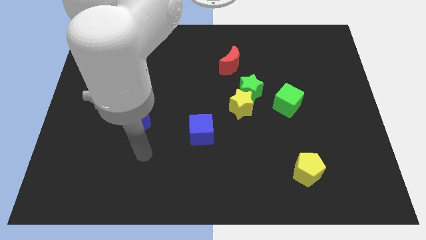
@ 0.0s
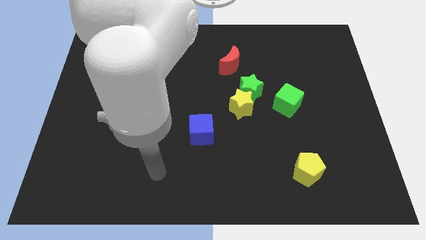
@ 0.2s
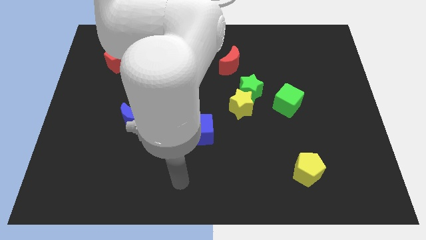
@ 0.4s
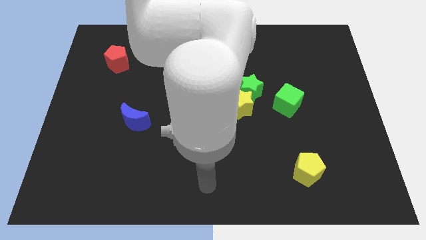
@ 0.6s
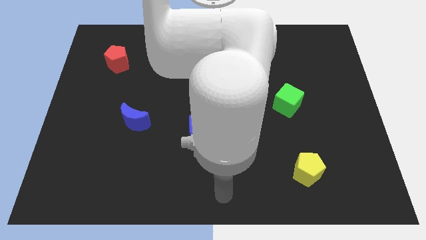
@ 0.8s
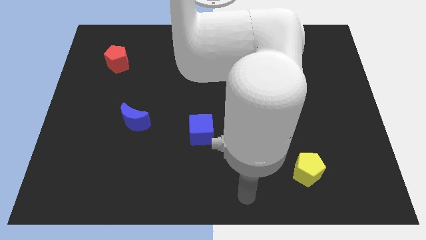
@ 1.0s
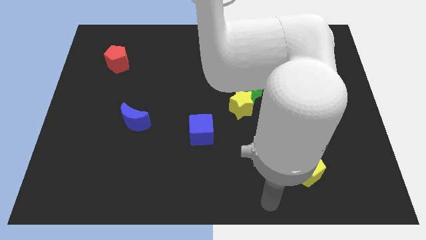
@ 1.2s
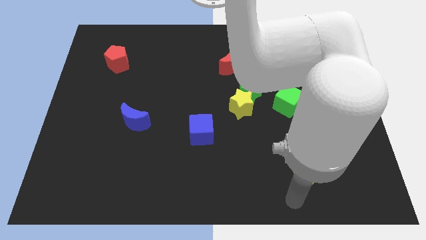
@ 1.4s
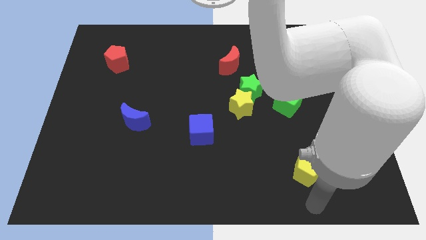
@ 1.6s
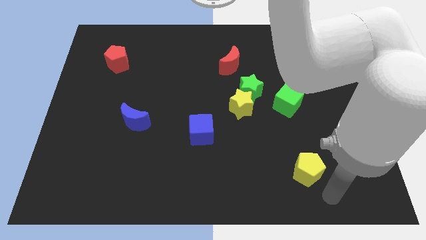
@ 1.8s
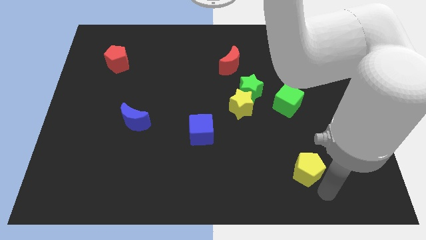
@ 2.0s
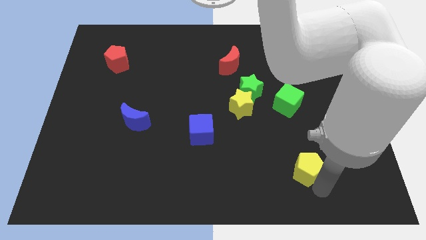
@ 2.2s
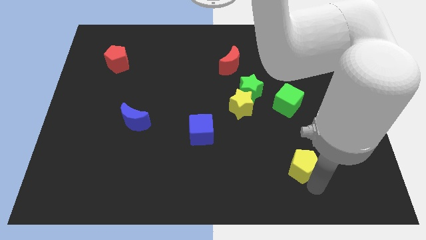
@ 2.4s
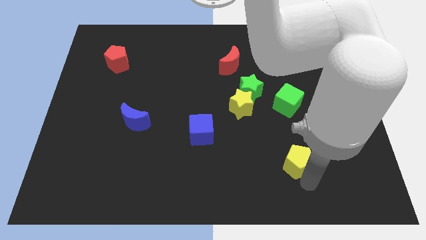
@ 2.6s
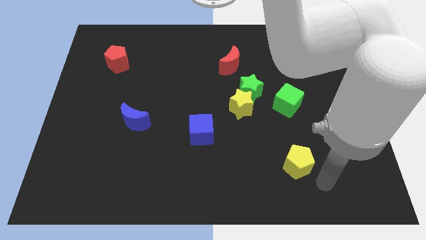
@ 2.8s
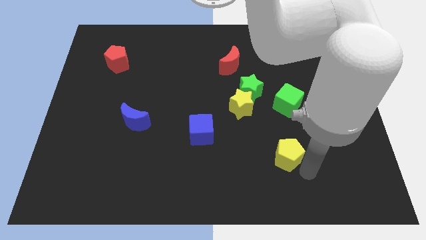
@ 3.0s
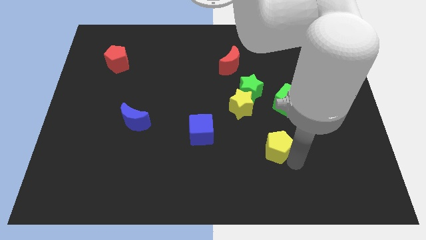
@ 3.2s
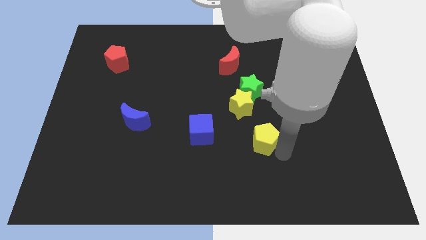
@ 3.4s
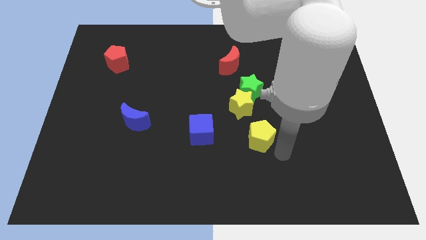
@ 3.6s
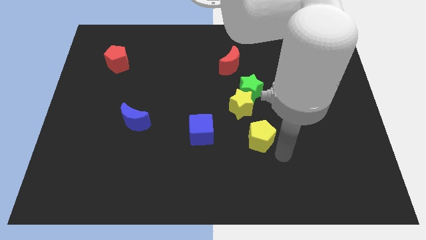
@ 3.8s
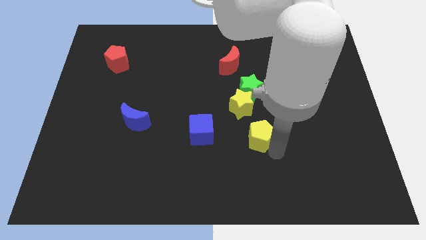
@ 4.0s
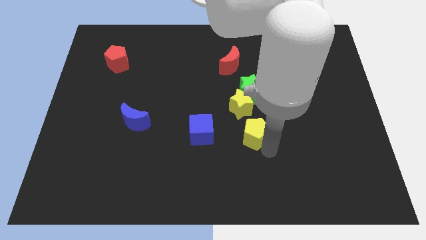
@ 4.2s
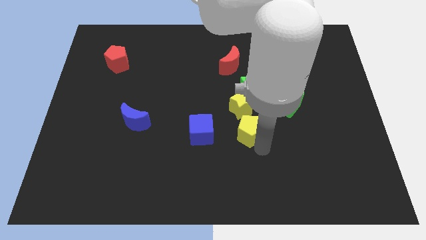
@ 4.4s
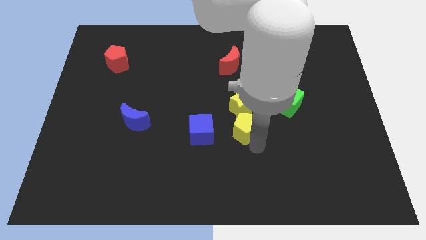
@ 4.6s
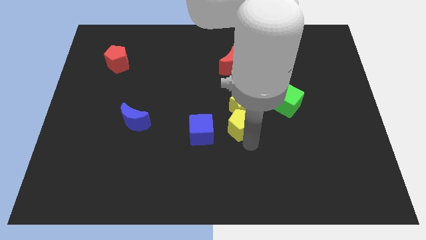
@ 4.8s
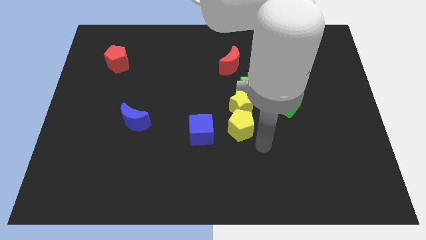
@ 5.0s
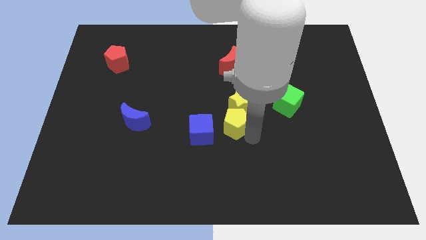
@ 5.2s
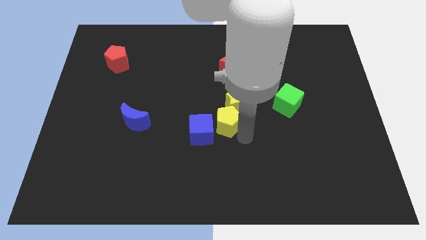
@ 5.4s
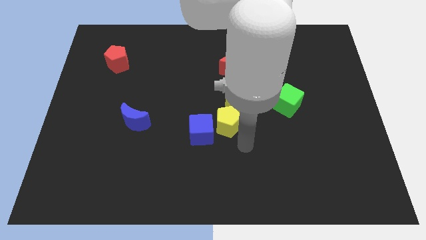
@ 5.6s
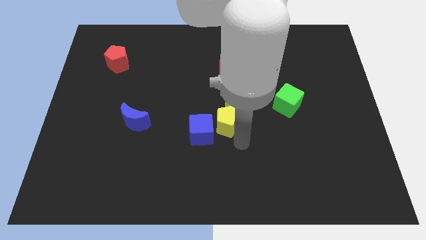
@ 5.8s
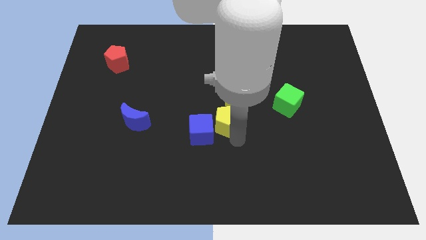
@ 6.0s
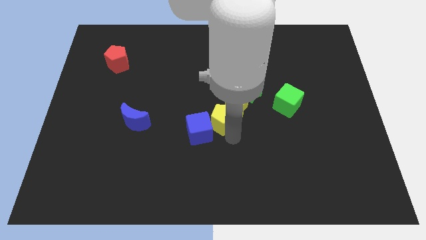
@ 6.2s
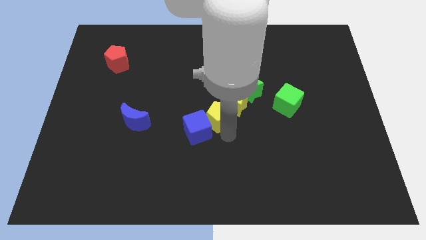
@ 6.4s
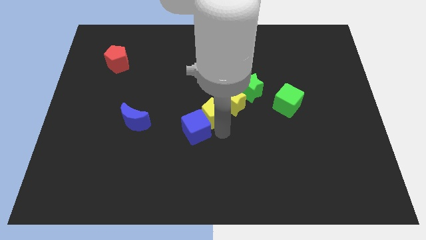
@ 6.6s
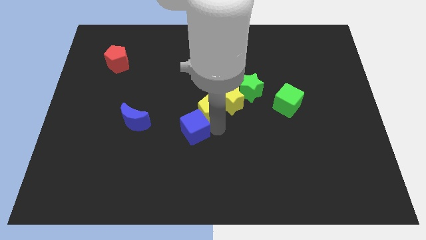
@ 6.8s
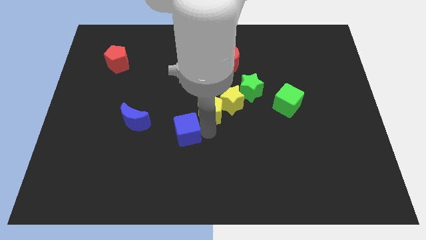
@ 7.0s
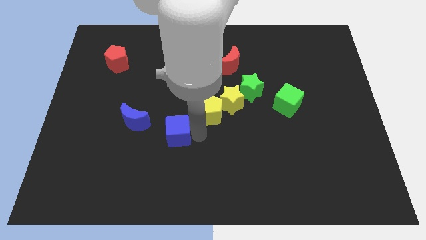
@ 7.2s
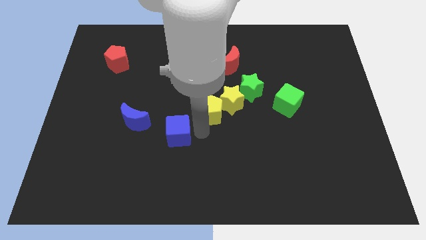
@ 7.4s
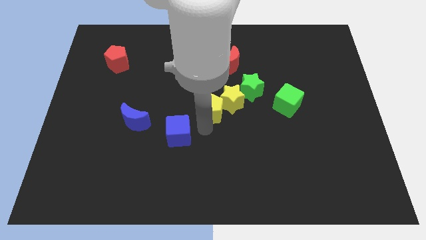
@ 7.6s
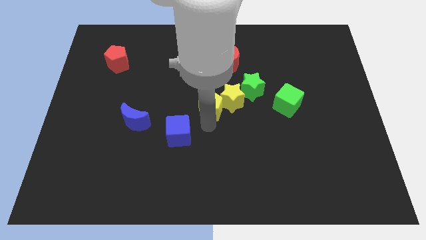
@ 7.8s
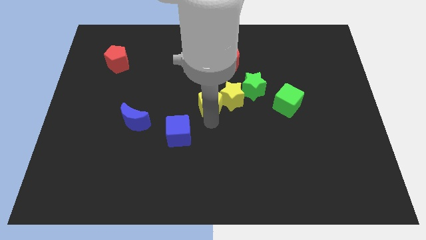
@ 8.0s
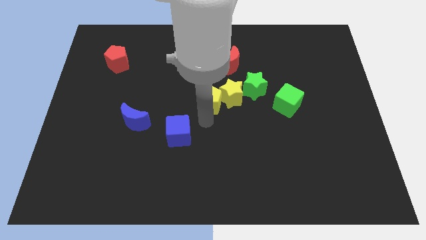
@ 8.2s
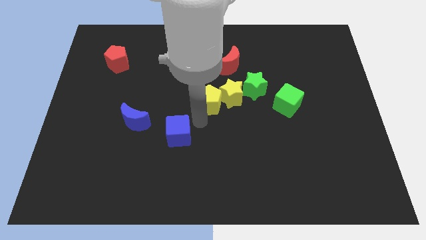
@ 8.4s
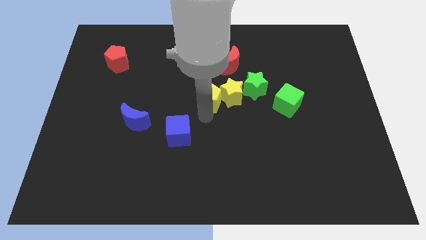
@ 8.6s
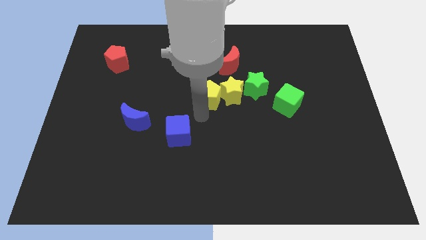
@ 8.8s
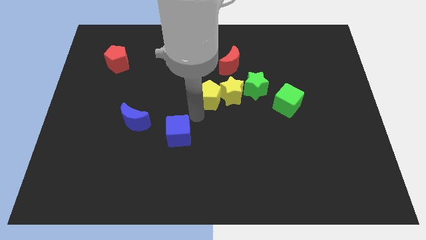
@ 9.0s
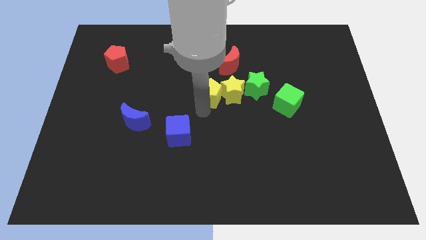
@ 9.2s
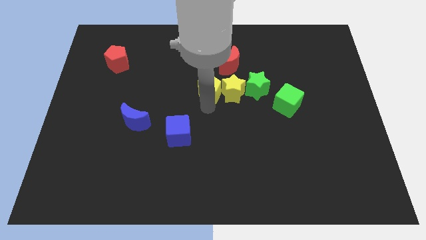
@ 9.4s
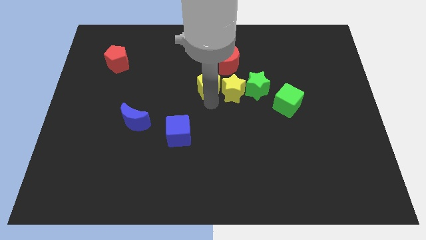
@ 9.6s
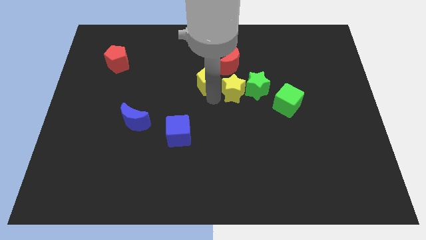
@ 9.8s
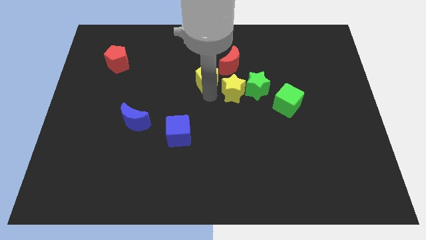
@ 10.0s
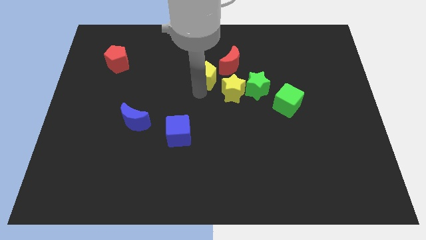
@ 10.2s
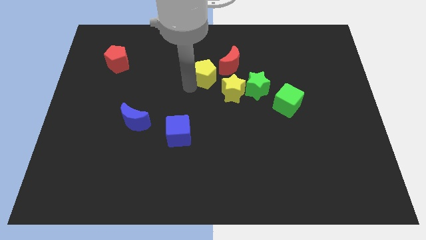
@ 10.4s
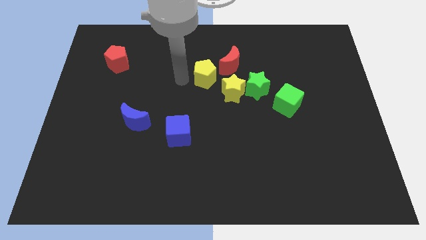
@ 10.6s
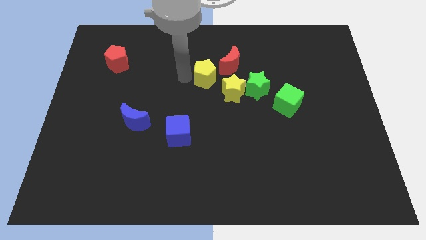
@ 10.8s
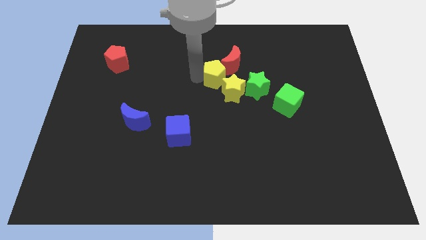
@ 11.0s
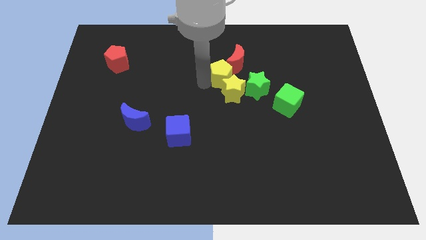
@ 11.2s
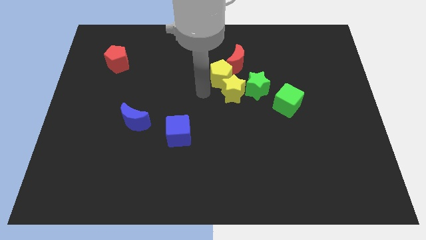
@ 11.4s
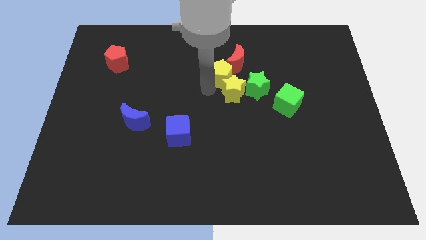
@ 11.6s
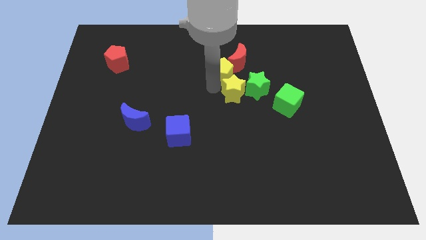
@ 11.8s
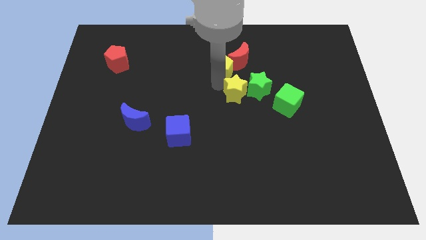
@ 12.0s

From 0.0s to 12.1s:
move the yellow pentagon next to the red moon
